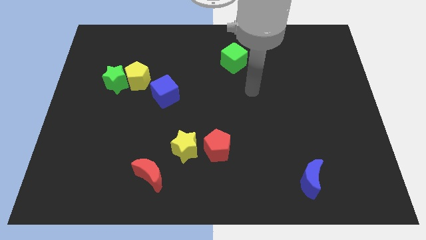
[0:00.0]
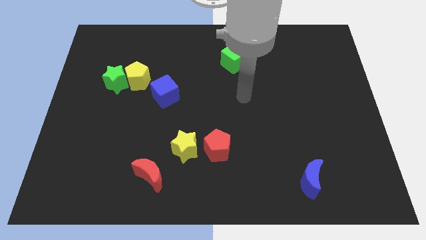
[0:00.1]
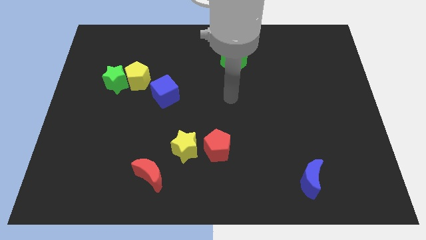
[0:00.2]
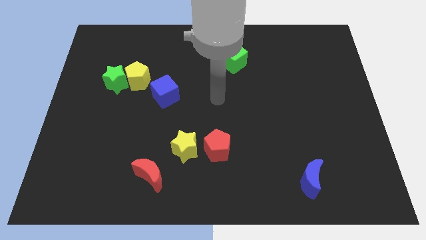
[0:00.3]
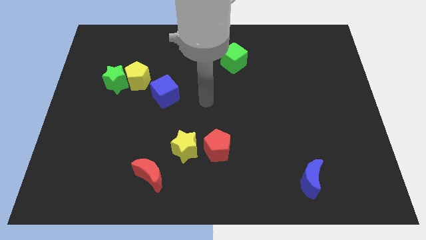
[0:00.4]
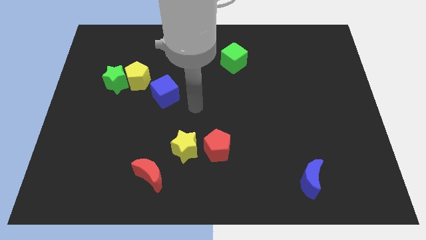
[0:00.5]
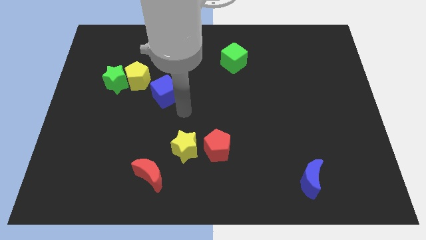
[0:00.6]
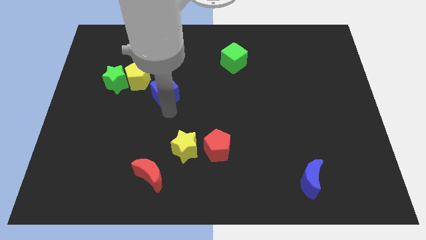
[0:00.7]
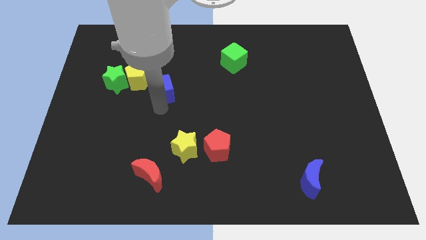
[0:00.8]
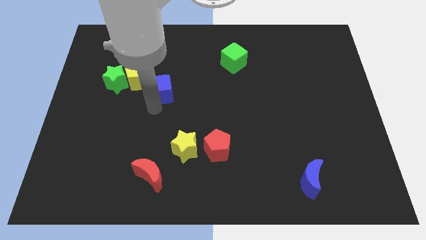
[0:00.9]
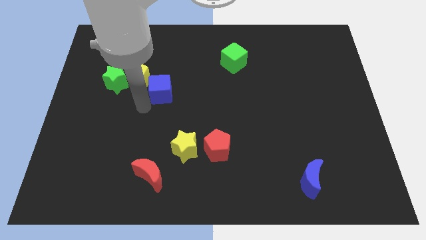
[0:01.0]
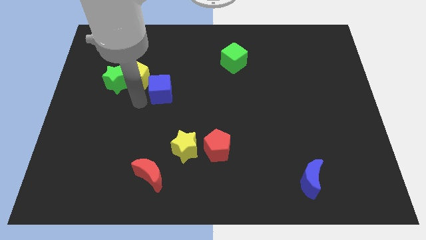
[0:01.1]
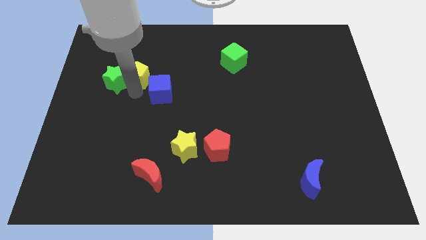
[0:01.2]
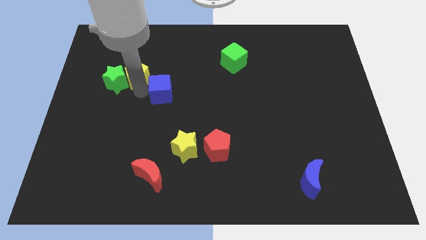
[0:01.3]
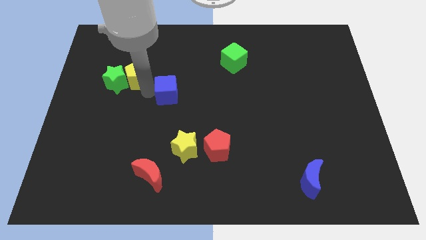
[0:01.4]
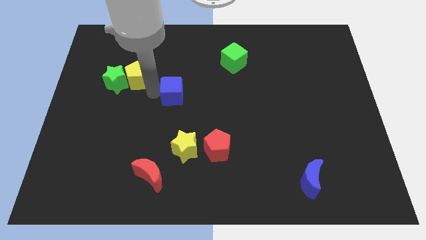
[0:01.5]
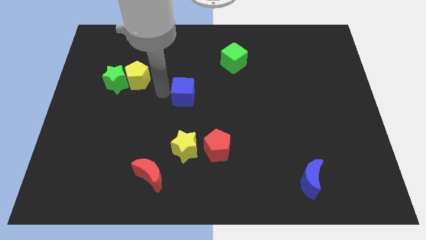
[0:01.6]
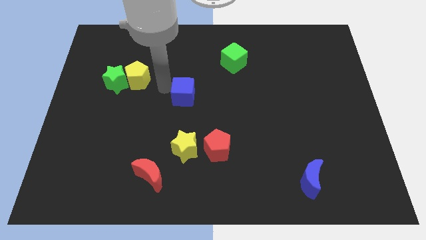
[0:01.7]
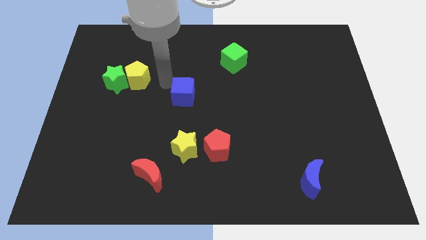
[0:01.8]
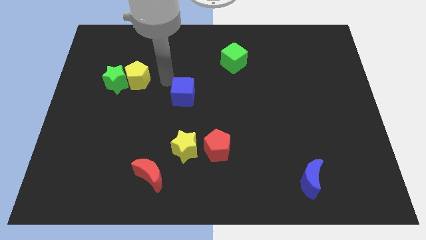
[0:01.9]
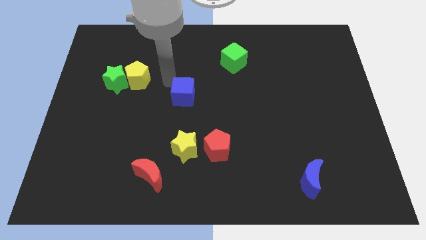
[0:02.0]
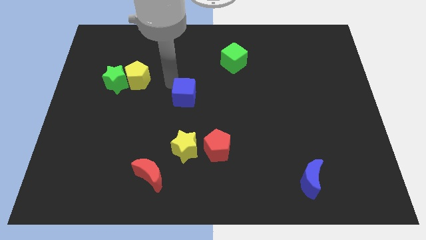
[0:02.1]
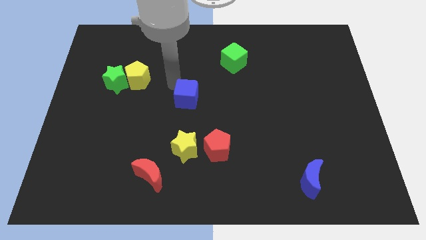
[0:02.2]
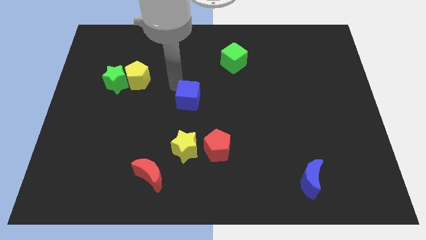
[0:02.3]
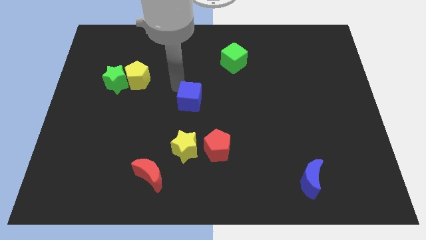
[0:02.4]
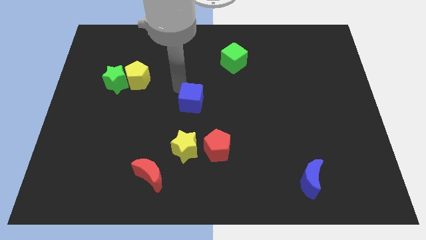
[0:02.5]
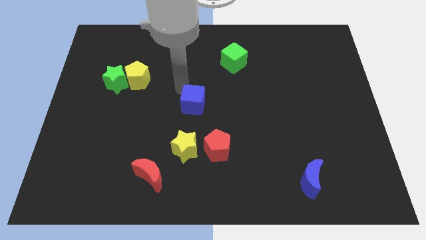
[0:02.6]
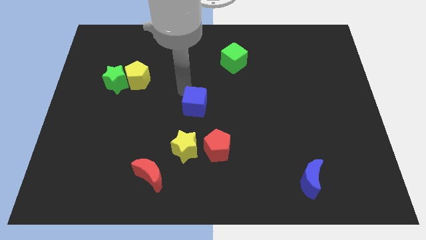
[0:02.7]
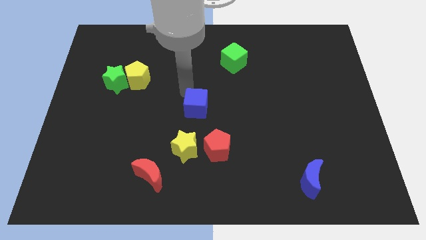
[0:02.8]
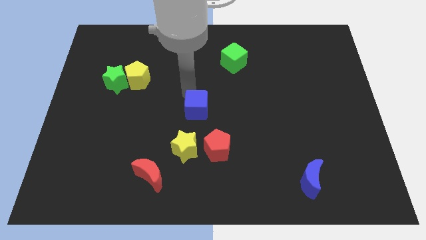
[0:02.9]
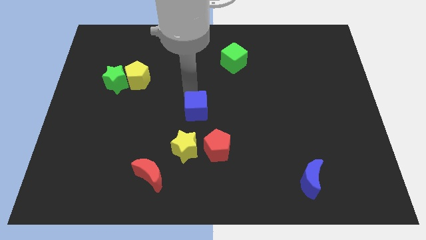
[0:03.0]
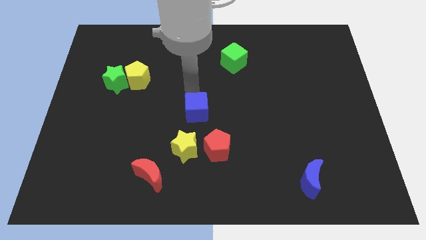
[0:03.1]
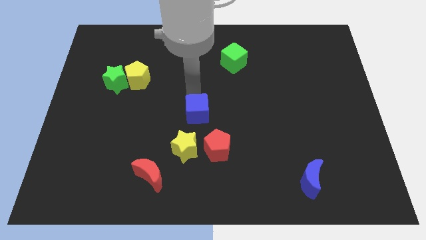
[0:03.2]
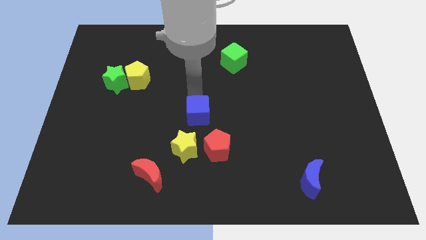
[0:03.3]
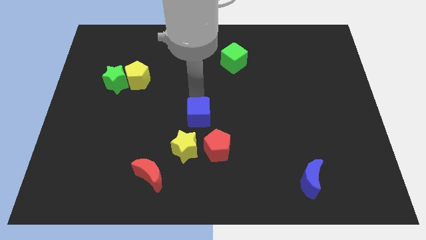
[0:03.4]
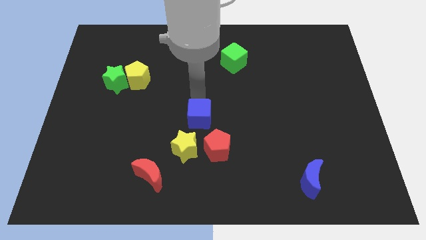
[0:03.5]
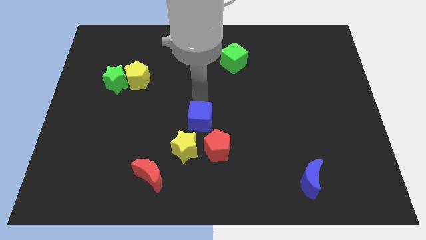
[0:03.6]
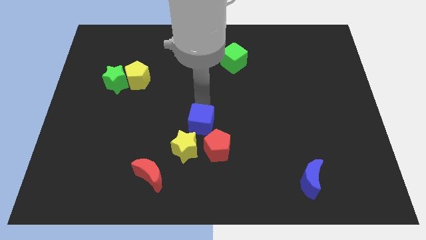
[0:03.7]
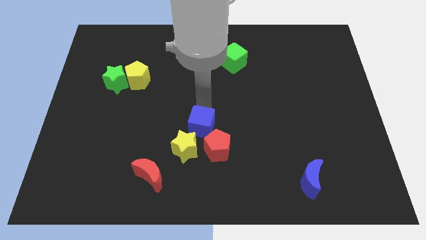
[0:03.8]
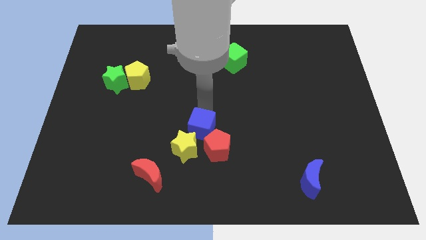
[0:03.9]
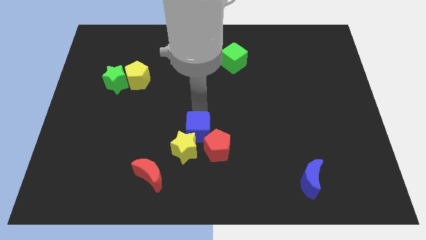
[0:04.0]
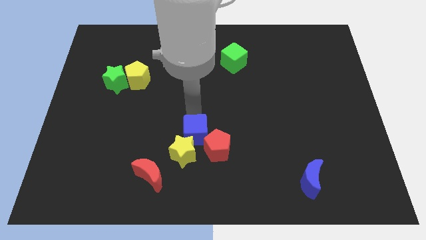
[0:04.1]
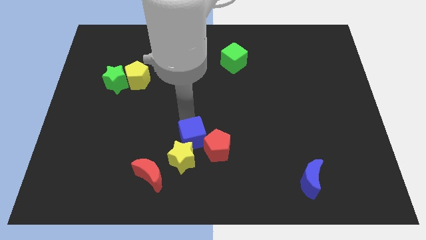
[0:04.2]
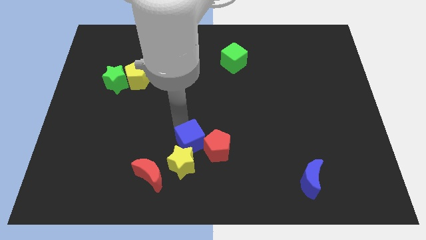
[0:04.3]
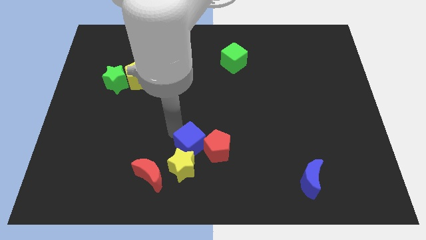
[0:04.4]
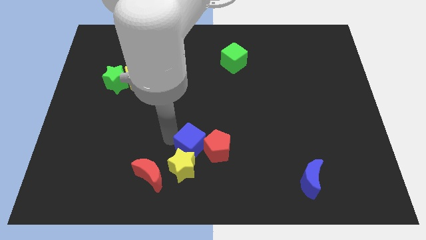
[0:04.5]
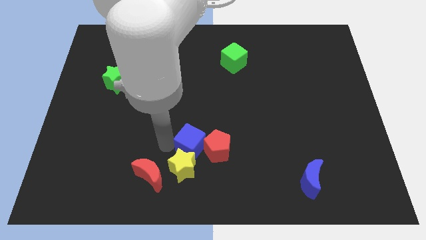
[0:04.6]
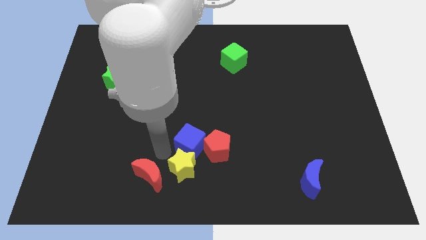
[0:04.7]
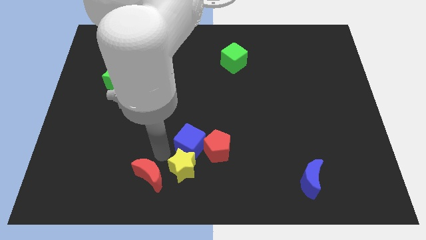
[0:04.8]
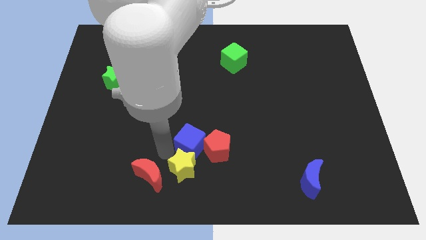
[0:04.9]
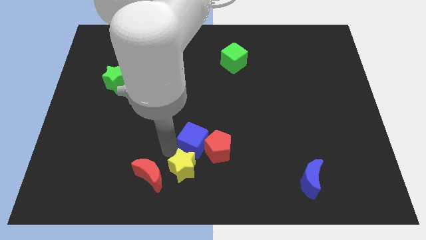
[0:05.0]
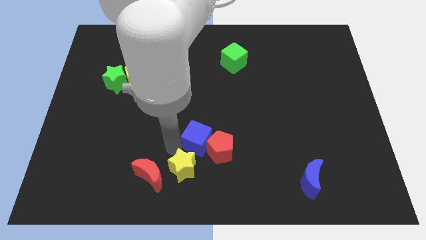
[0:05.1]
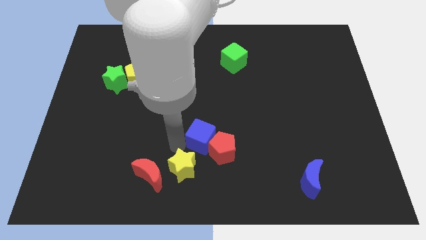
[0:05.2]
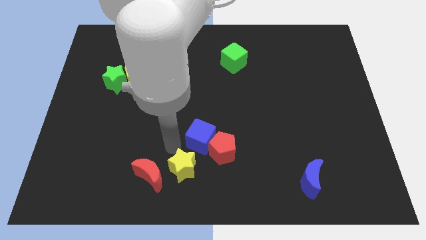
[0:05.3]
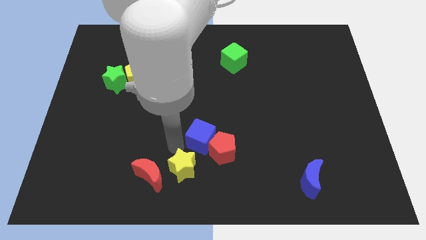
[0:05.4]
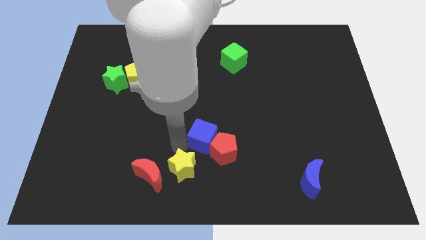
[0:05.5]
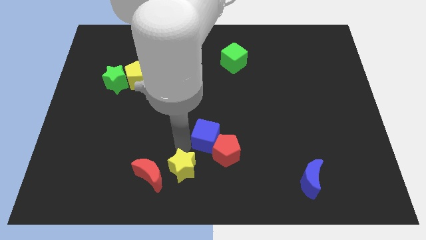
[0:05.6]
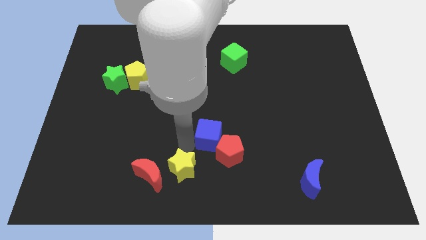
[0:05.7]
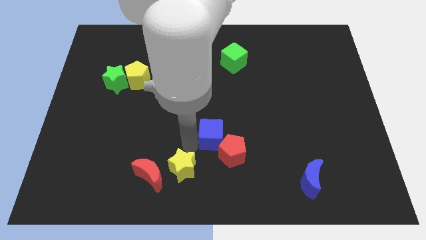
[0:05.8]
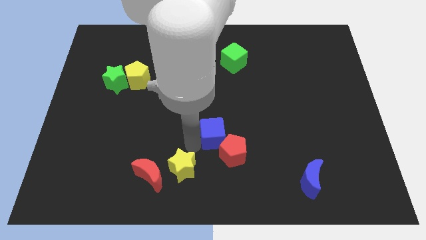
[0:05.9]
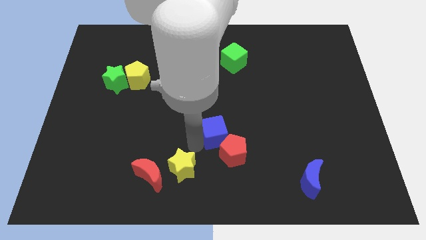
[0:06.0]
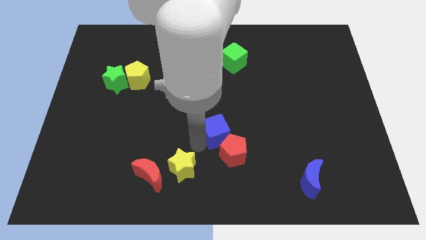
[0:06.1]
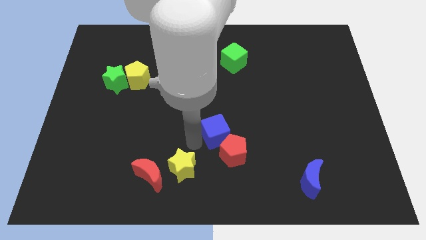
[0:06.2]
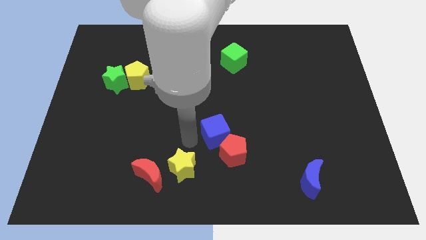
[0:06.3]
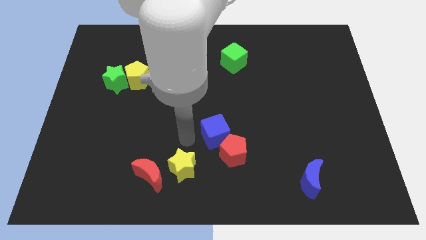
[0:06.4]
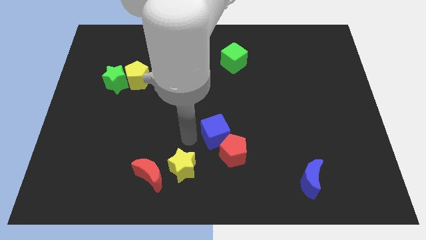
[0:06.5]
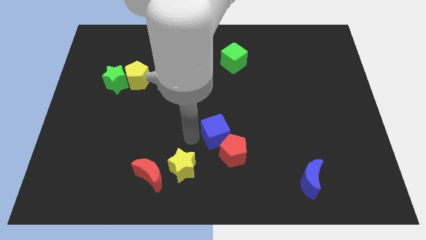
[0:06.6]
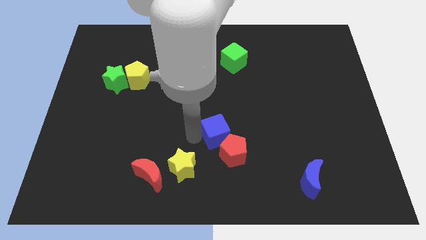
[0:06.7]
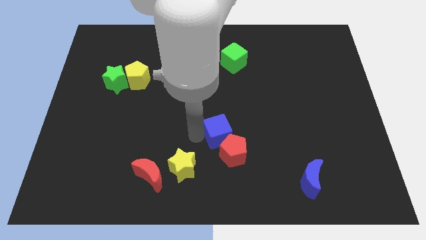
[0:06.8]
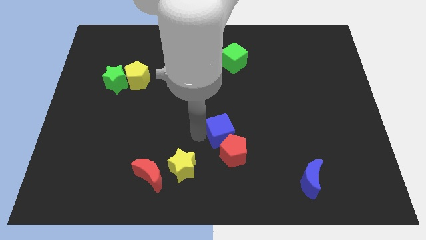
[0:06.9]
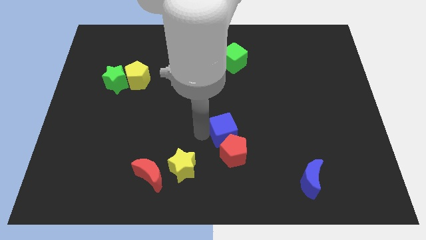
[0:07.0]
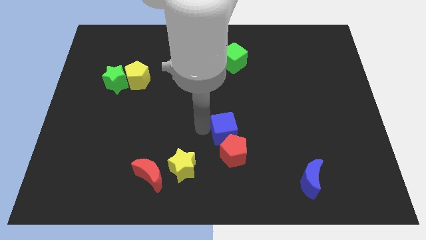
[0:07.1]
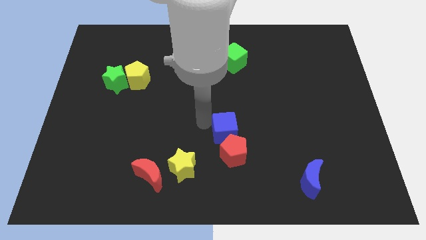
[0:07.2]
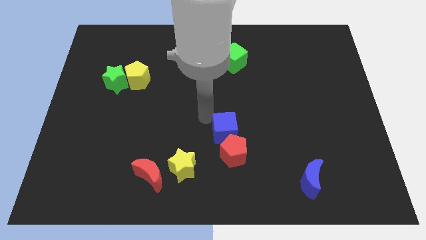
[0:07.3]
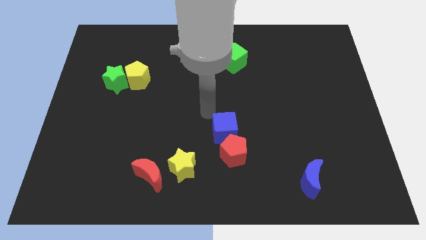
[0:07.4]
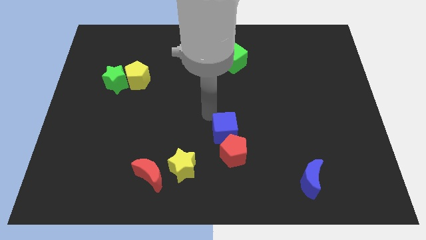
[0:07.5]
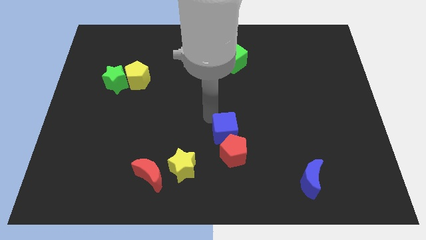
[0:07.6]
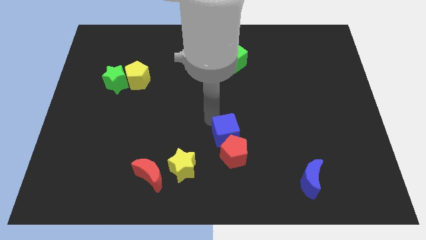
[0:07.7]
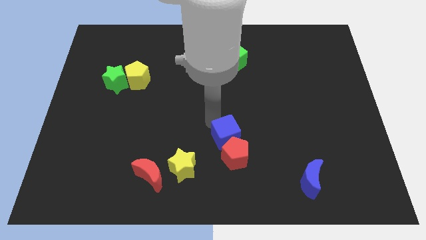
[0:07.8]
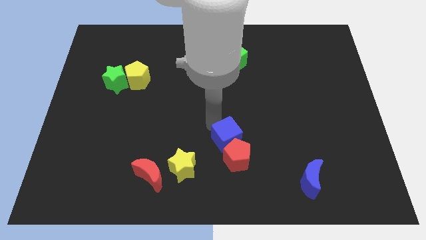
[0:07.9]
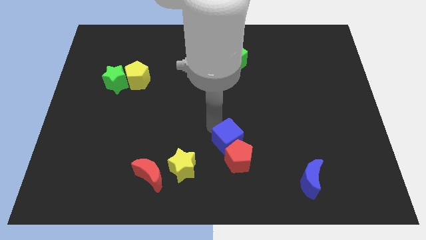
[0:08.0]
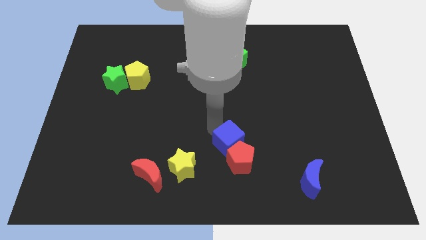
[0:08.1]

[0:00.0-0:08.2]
slide the blue cube diagonally down and right
